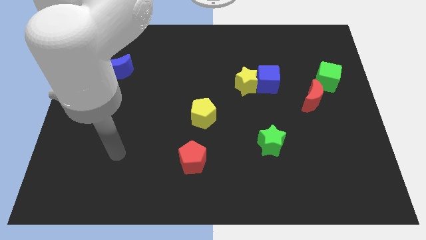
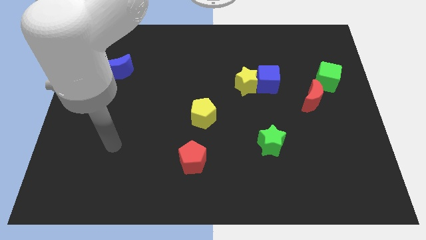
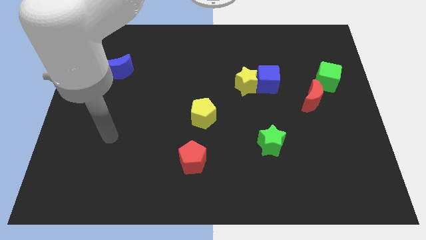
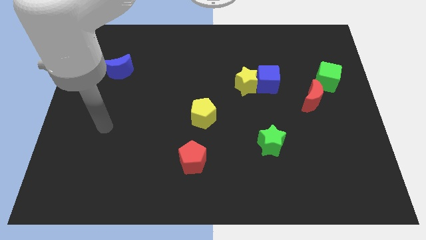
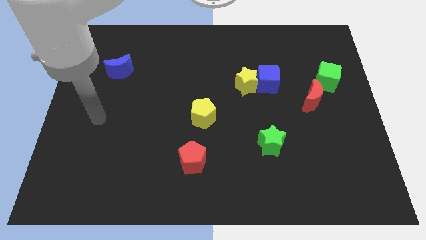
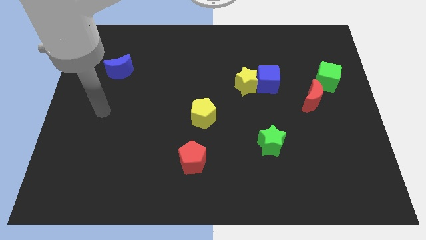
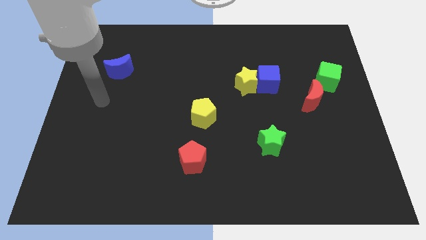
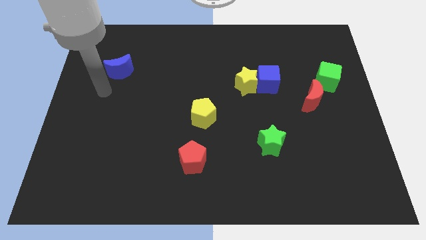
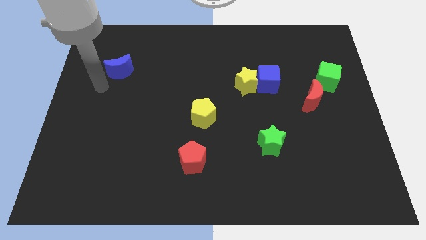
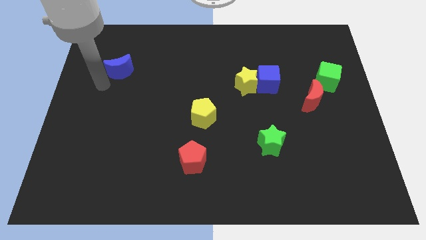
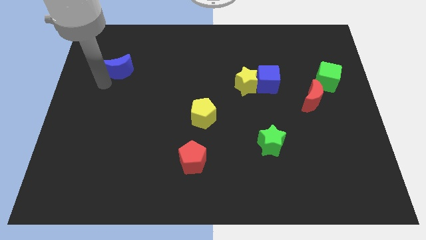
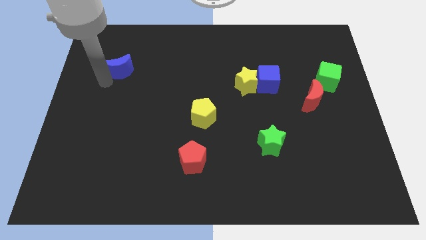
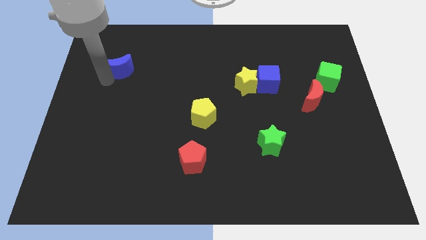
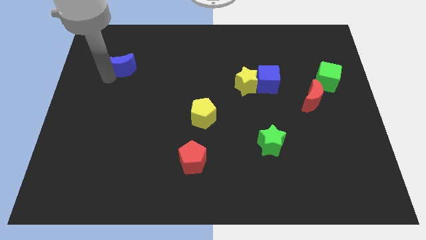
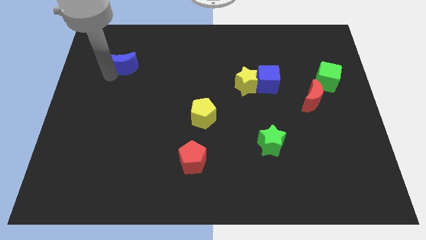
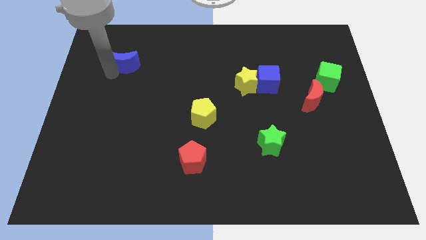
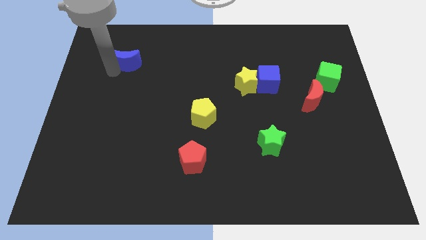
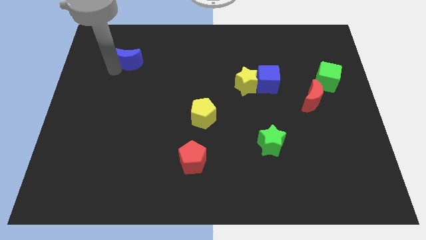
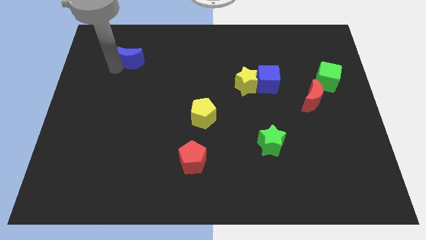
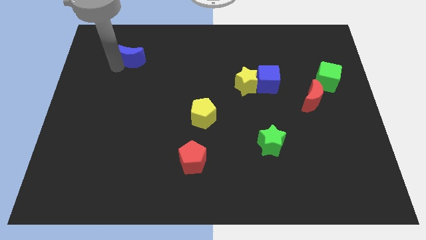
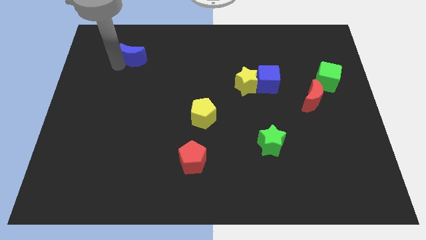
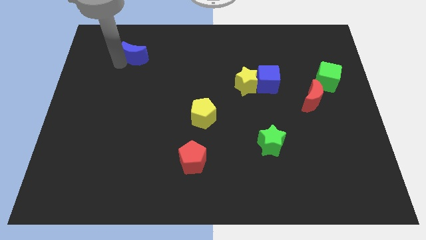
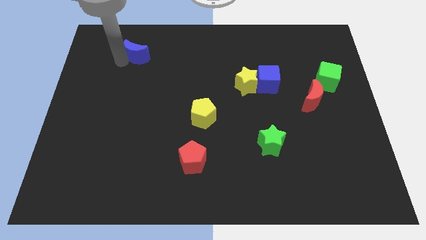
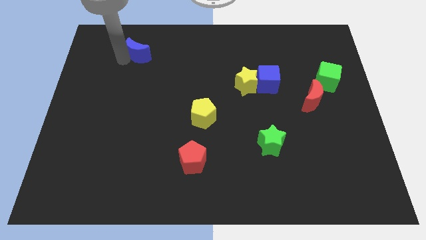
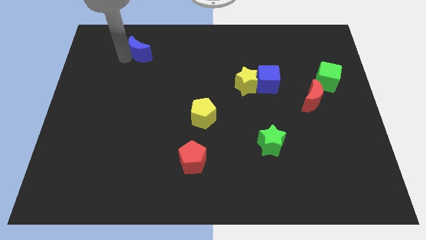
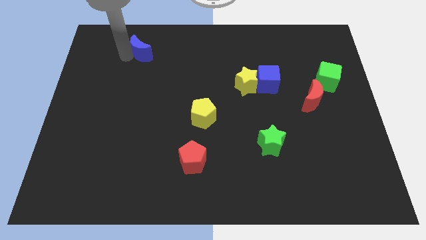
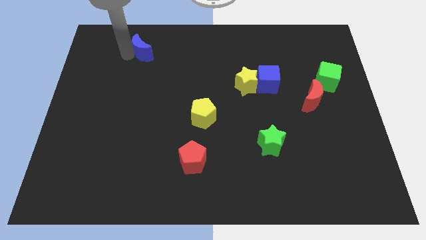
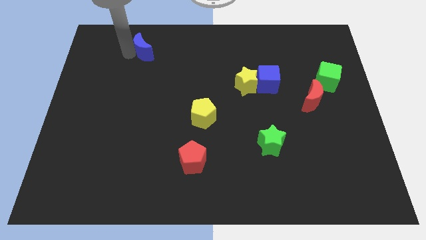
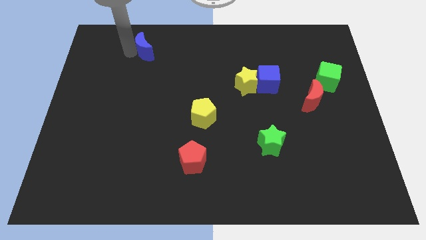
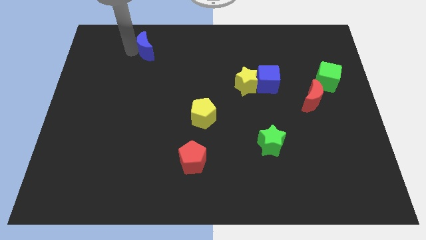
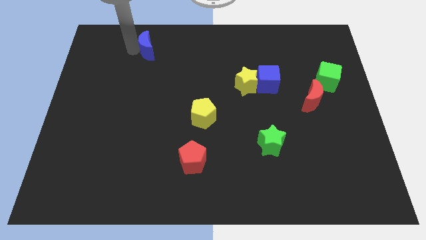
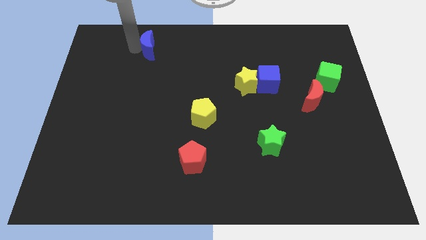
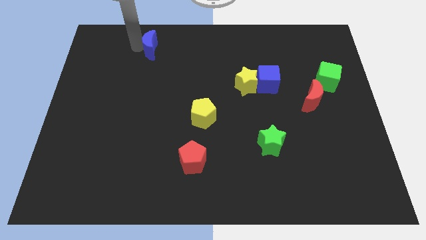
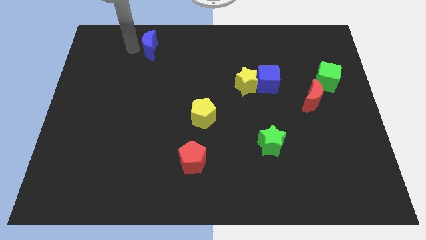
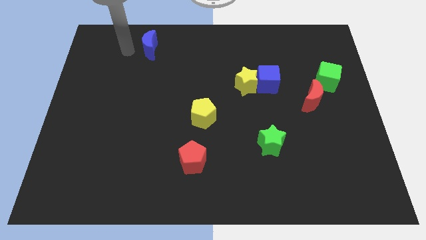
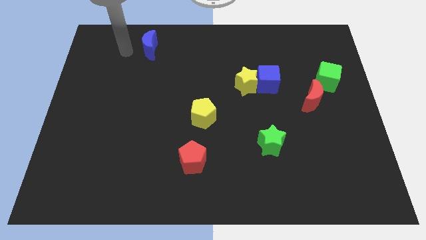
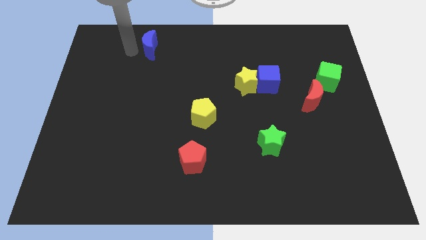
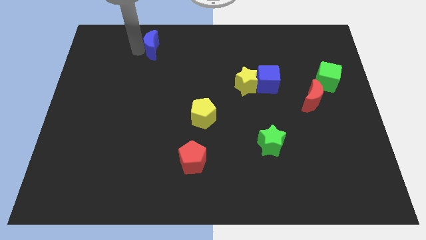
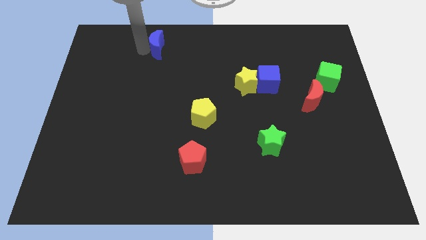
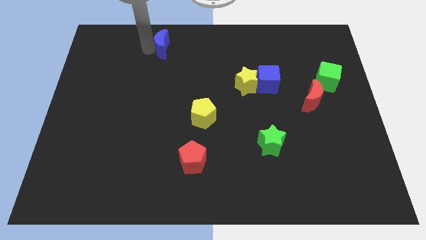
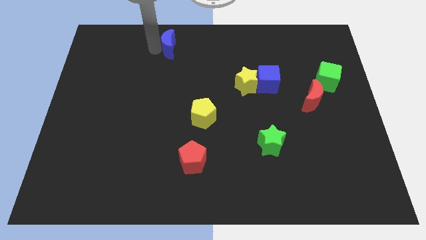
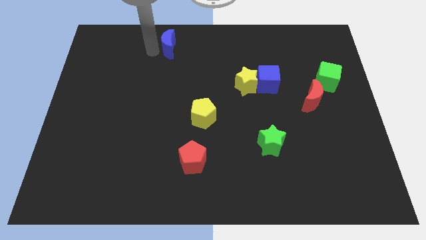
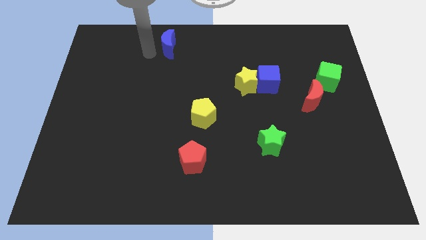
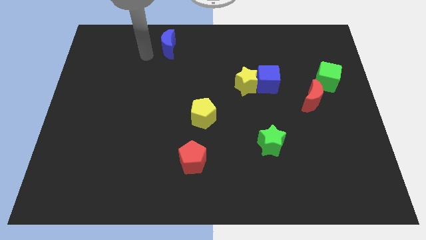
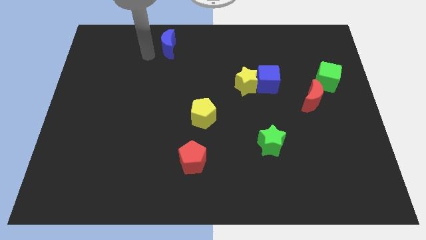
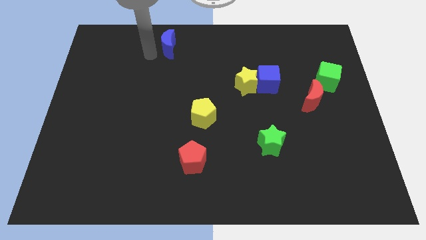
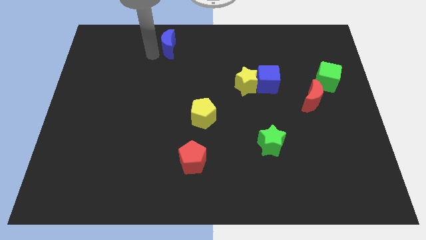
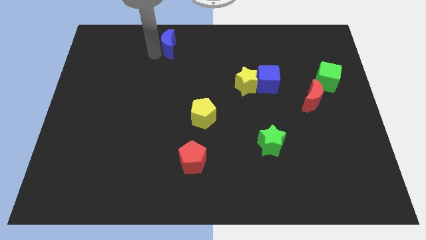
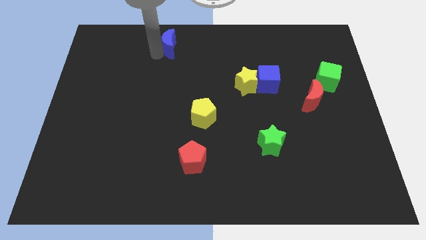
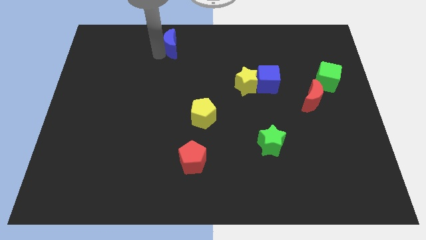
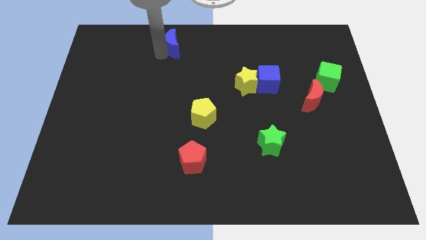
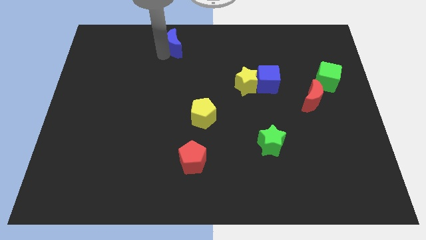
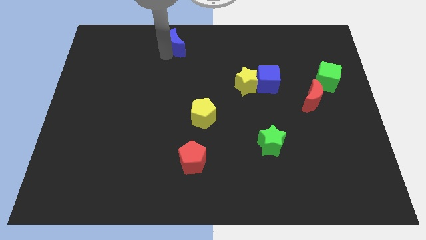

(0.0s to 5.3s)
move the blue moon to the towards your base

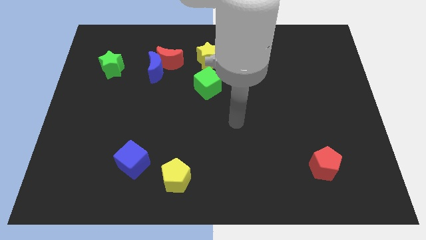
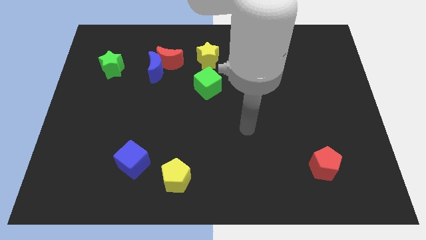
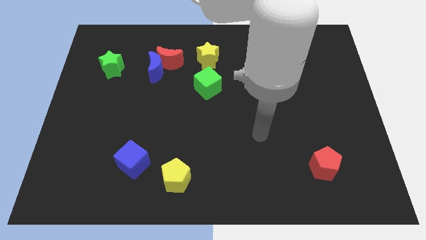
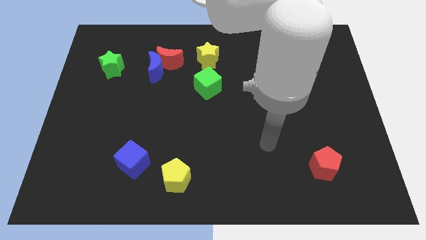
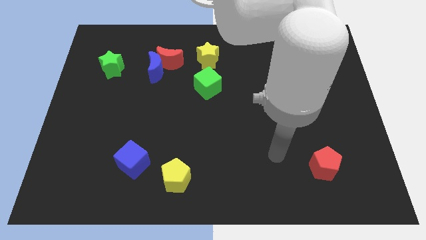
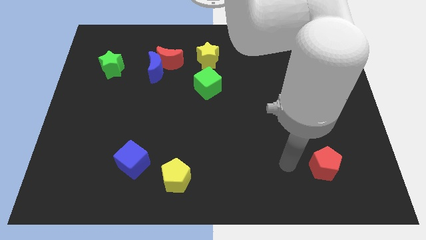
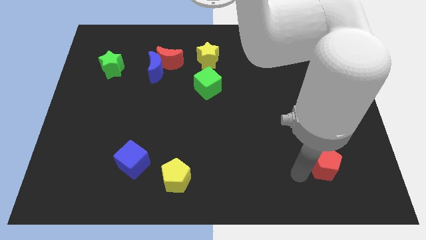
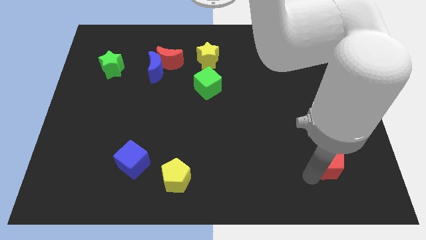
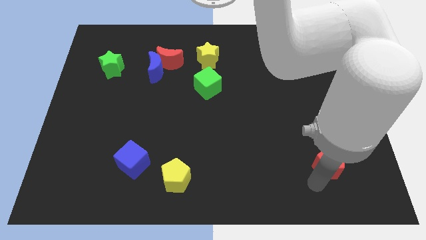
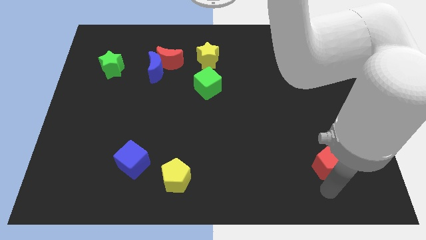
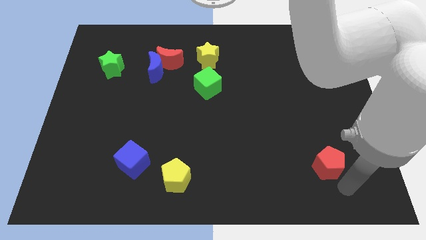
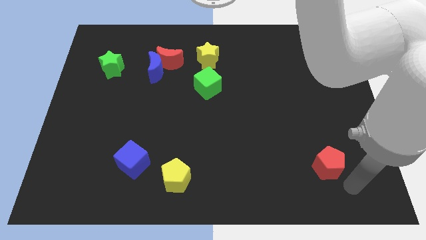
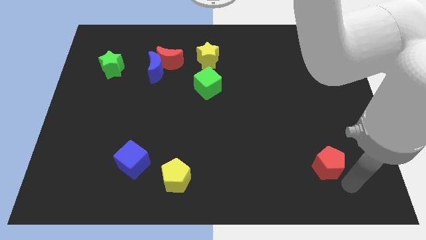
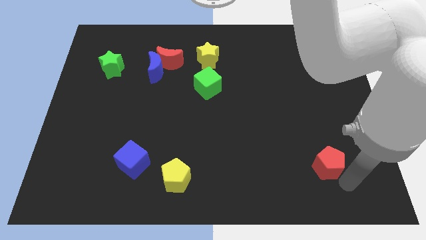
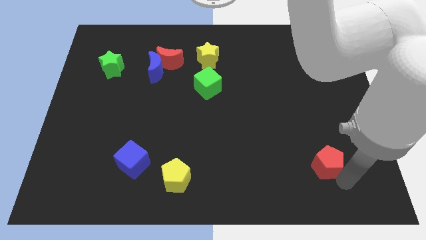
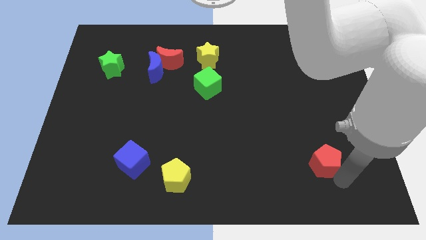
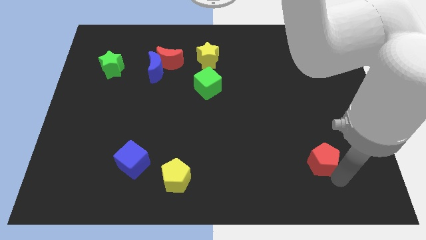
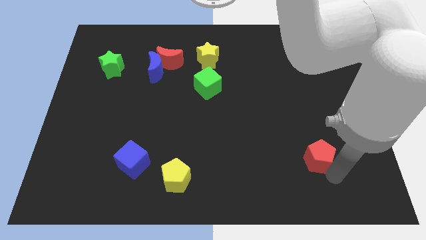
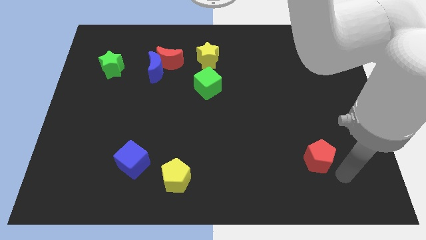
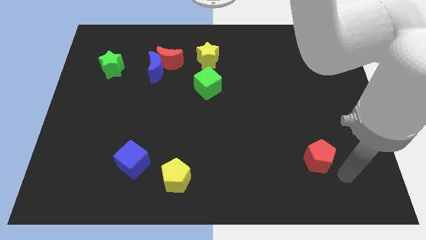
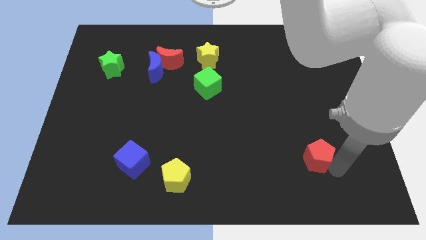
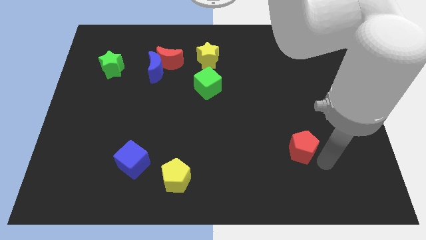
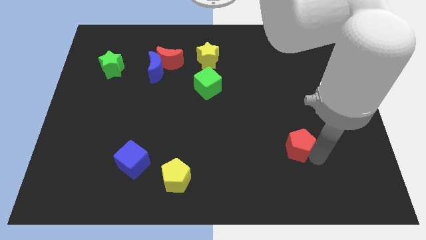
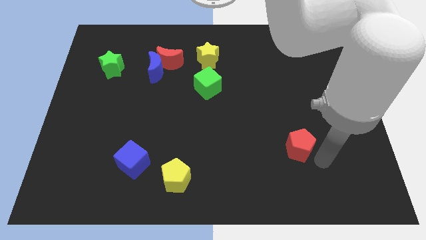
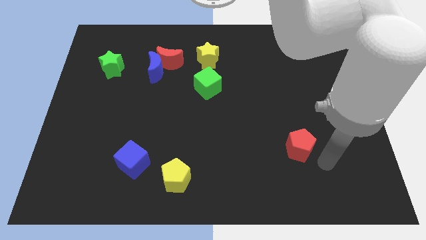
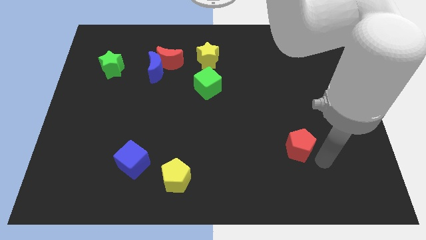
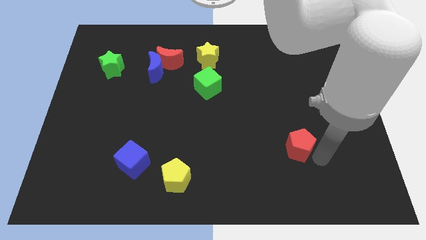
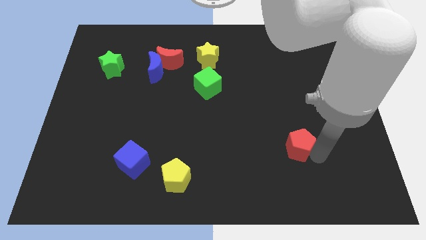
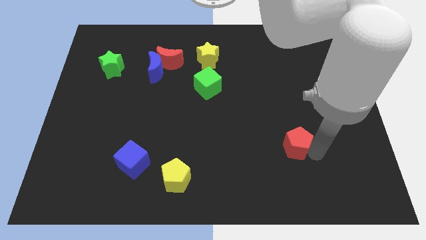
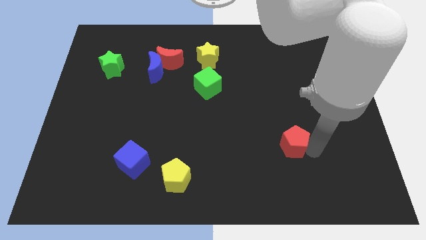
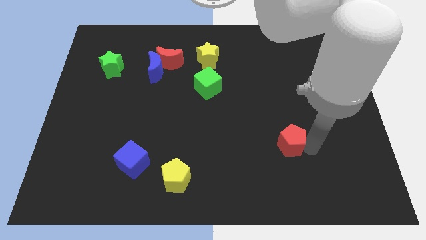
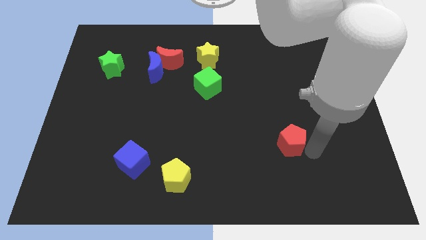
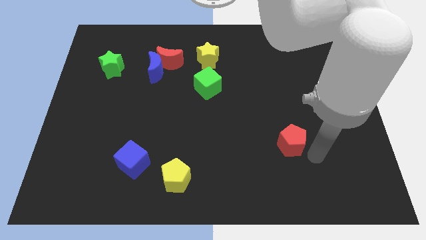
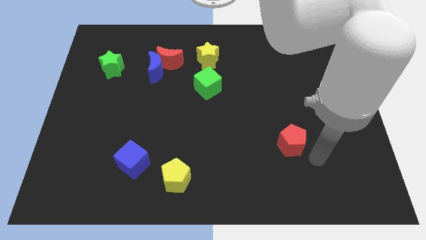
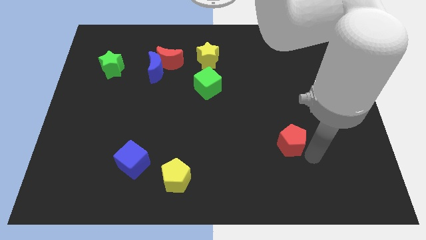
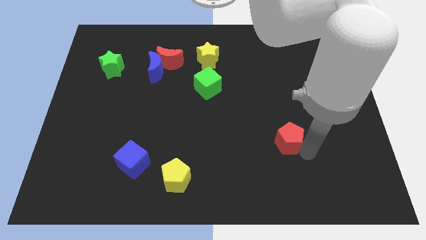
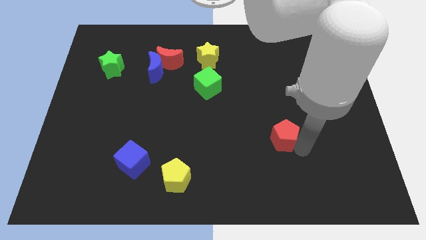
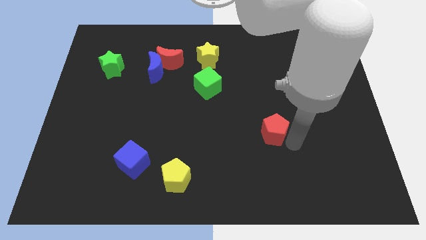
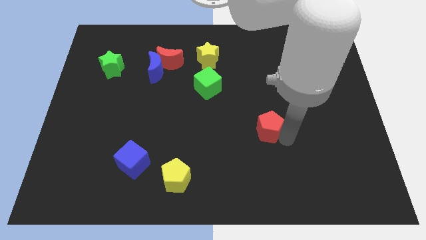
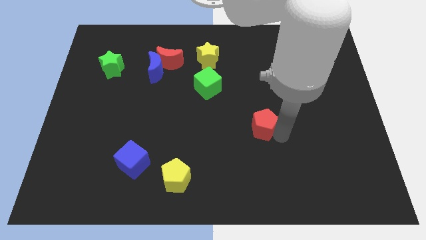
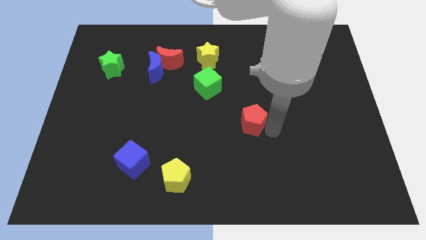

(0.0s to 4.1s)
slide the red pentagon to the middle of the board
